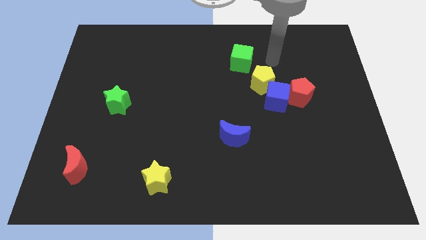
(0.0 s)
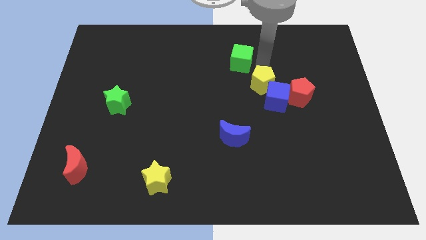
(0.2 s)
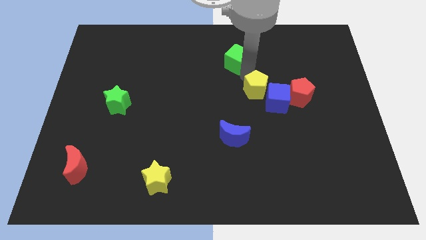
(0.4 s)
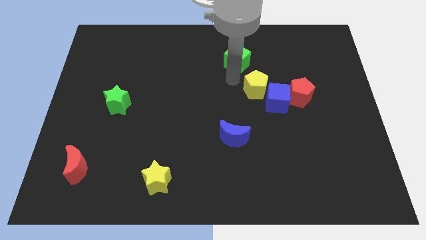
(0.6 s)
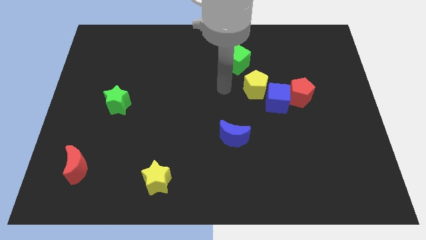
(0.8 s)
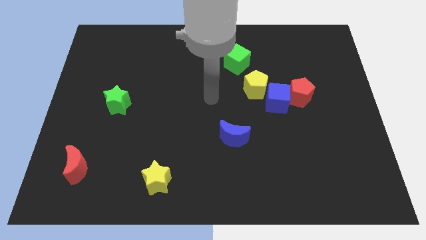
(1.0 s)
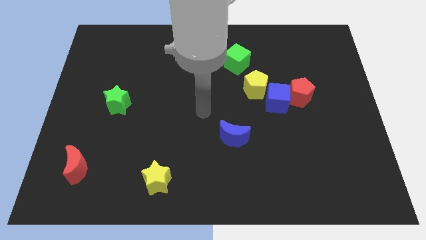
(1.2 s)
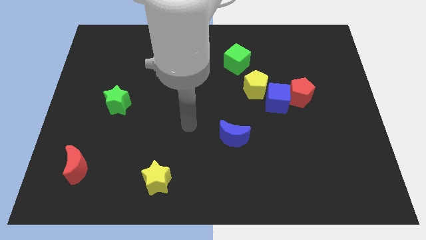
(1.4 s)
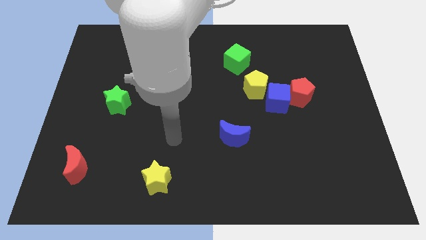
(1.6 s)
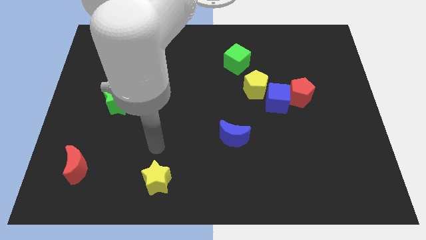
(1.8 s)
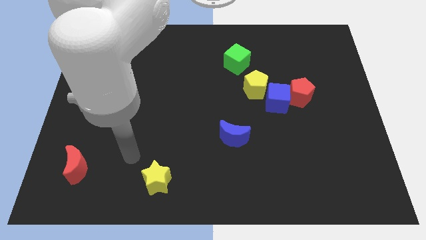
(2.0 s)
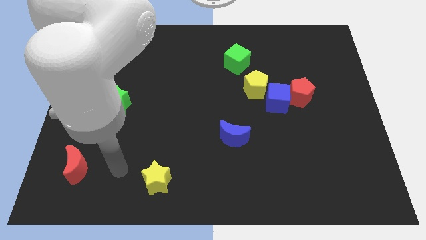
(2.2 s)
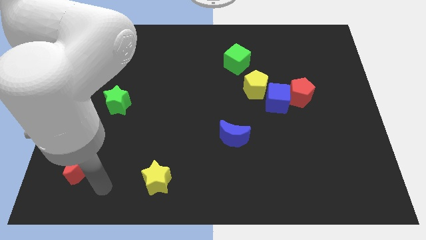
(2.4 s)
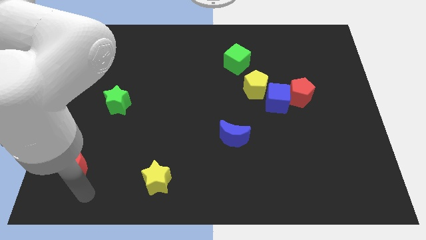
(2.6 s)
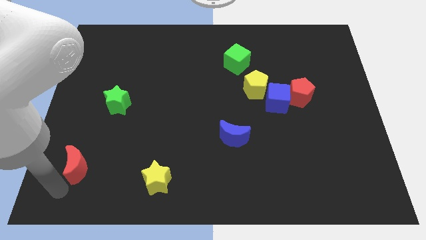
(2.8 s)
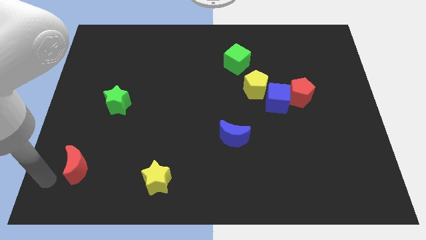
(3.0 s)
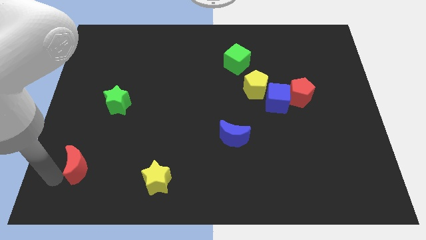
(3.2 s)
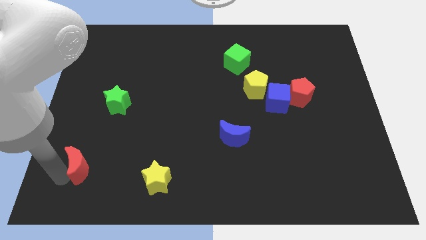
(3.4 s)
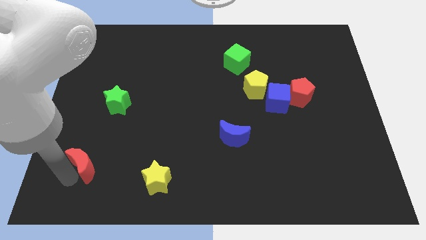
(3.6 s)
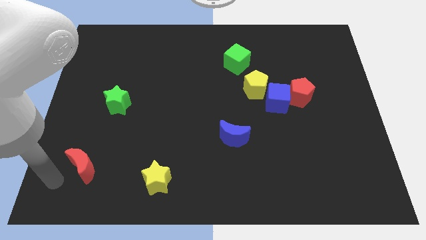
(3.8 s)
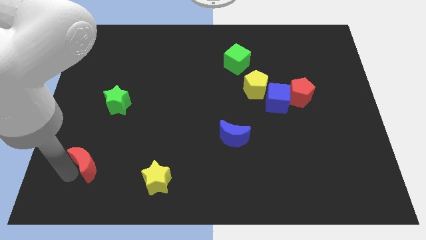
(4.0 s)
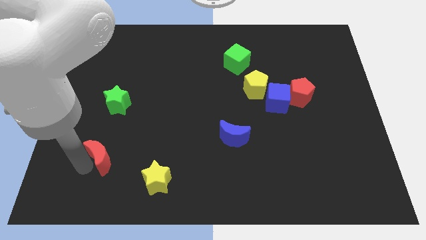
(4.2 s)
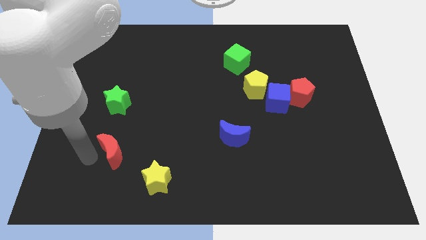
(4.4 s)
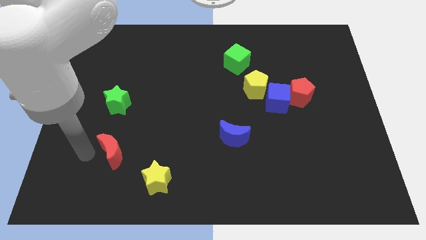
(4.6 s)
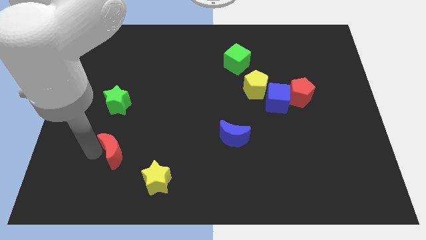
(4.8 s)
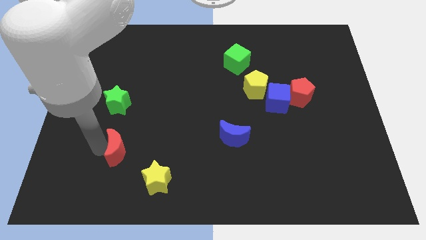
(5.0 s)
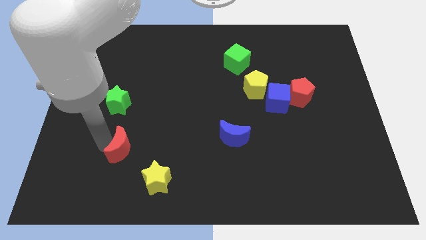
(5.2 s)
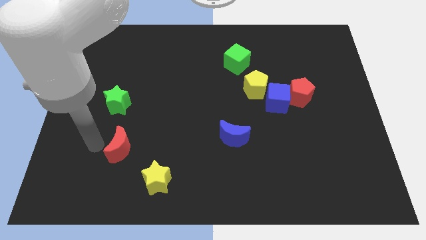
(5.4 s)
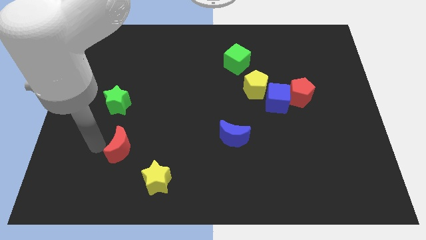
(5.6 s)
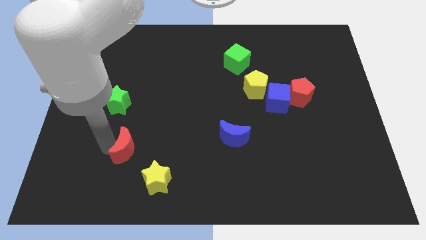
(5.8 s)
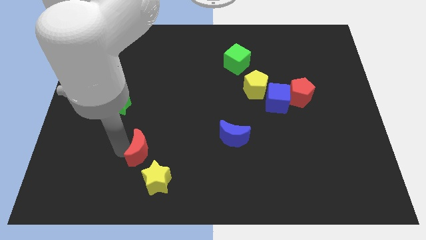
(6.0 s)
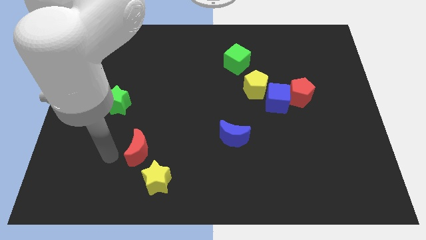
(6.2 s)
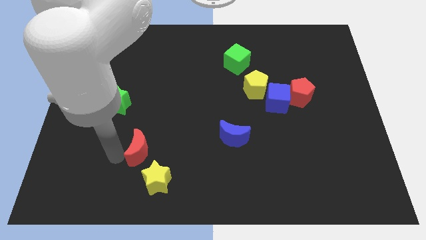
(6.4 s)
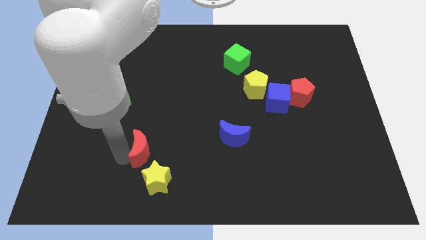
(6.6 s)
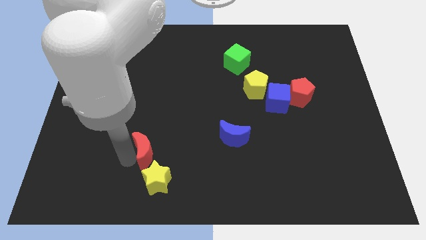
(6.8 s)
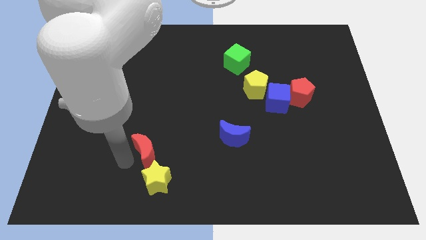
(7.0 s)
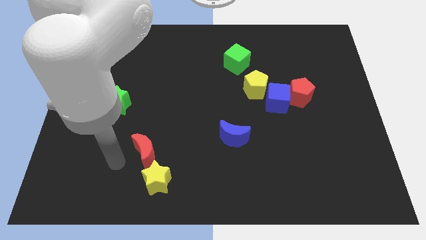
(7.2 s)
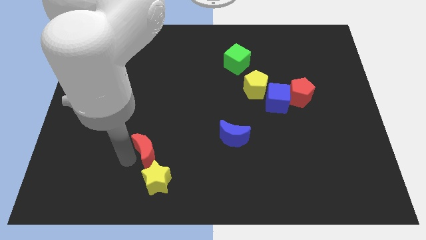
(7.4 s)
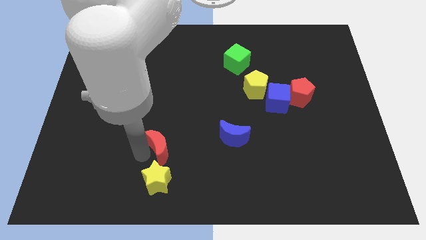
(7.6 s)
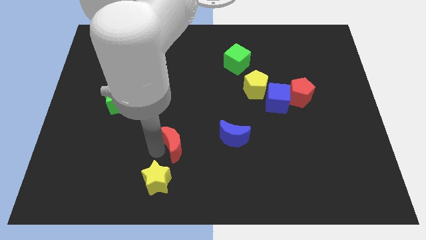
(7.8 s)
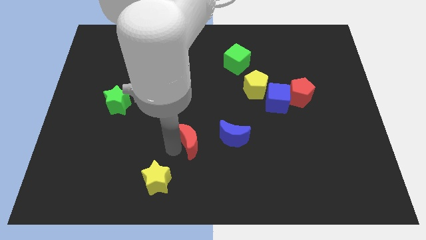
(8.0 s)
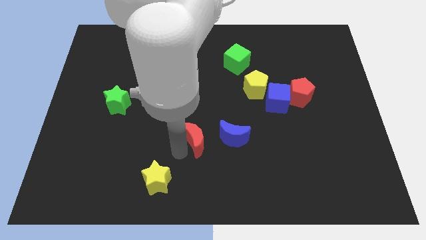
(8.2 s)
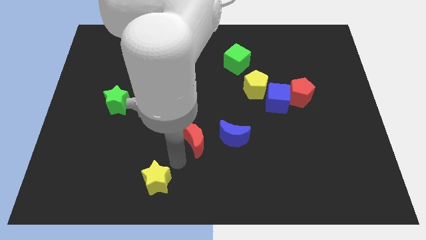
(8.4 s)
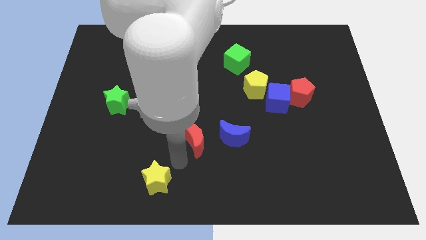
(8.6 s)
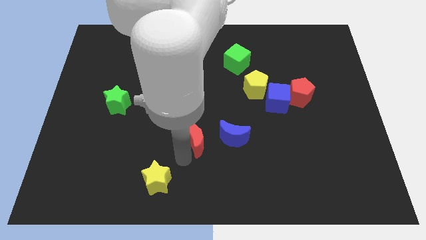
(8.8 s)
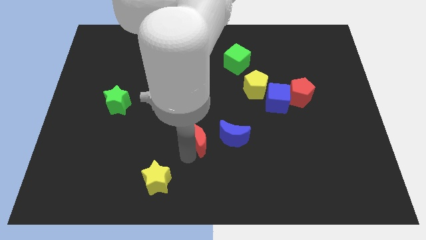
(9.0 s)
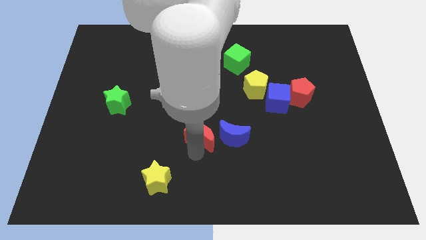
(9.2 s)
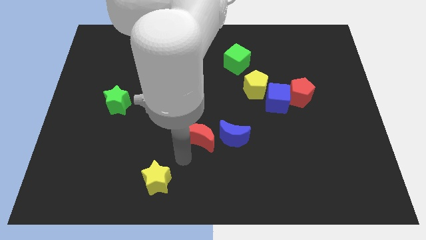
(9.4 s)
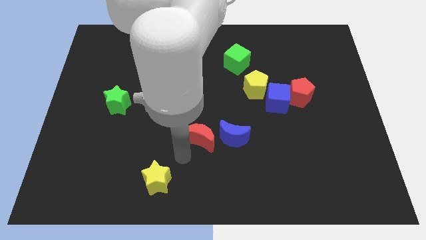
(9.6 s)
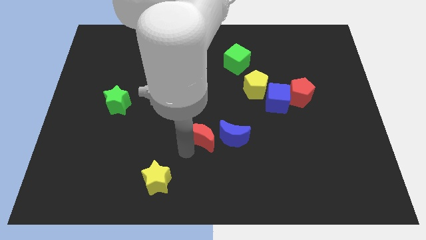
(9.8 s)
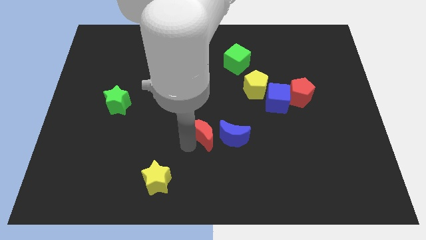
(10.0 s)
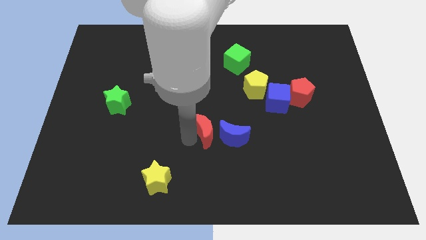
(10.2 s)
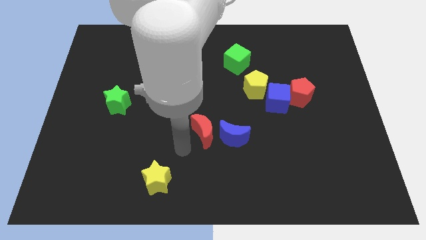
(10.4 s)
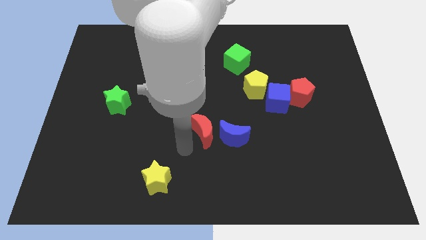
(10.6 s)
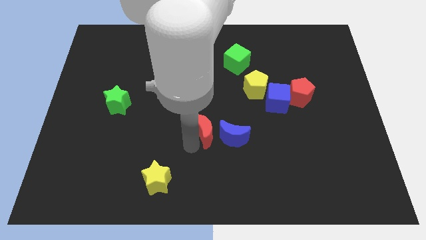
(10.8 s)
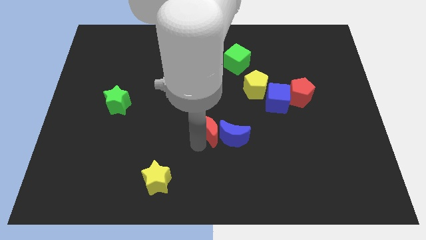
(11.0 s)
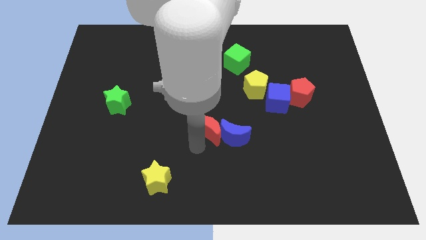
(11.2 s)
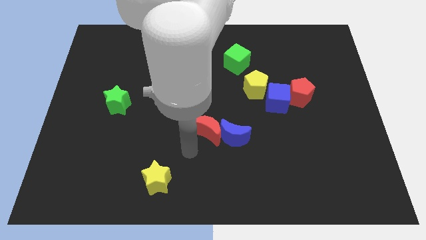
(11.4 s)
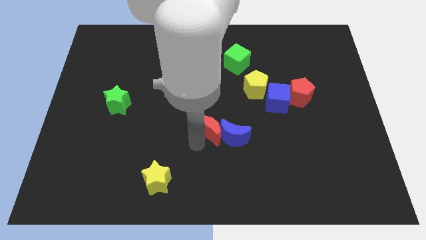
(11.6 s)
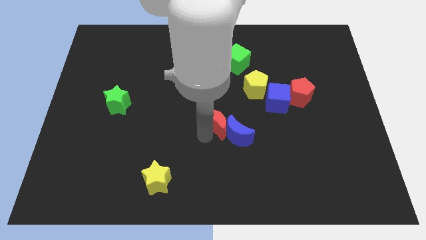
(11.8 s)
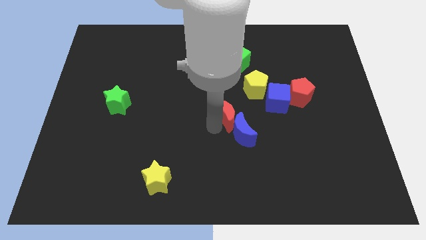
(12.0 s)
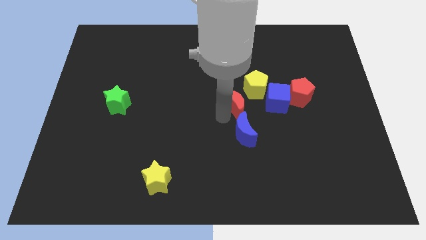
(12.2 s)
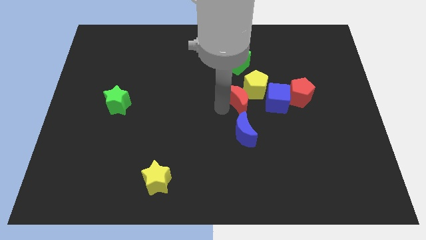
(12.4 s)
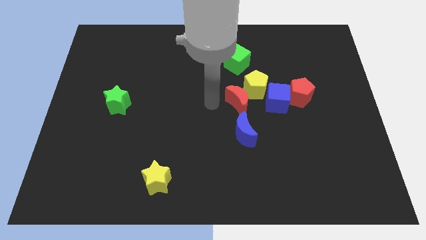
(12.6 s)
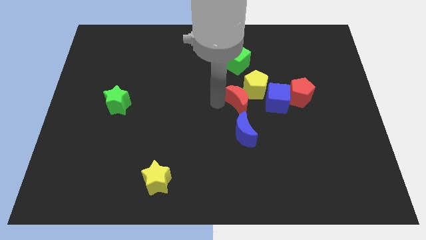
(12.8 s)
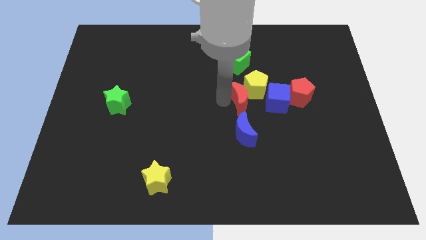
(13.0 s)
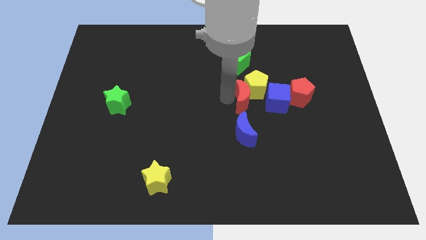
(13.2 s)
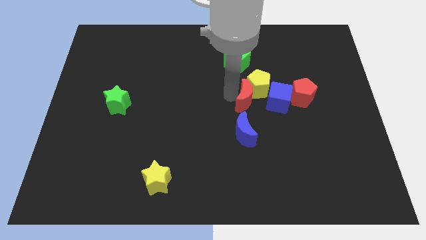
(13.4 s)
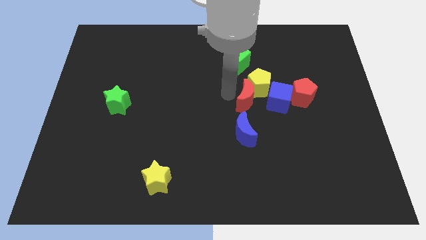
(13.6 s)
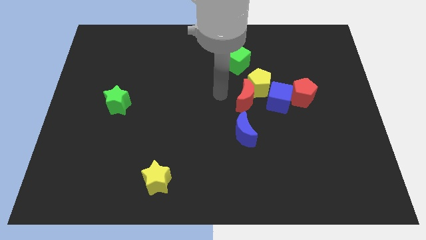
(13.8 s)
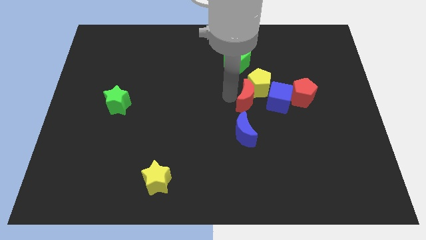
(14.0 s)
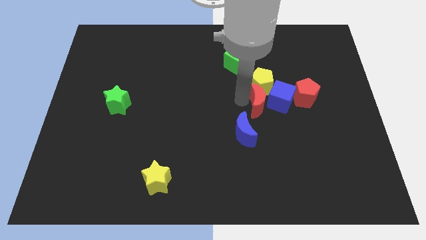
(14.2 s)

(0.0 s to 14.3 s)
push the red moon towards the blue cube
